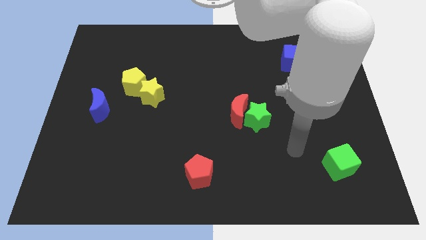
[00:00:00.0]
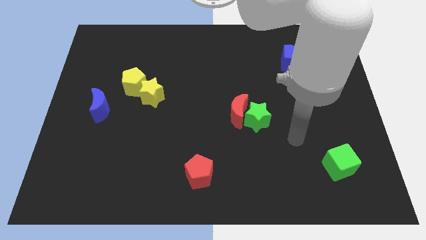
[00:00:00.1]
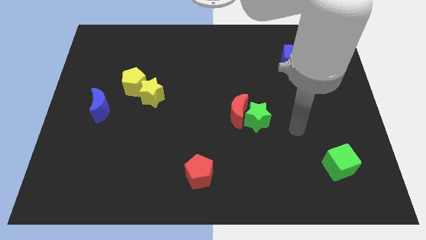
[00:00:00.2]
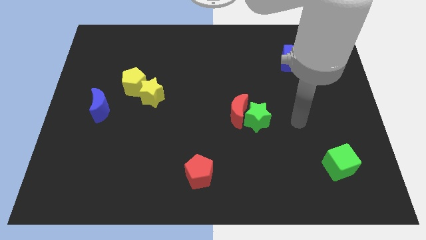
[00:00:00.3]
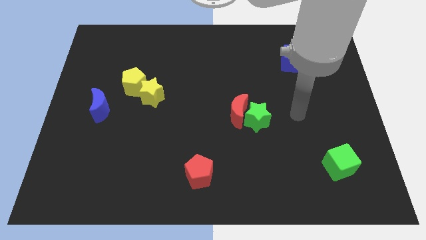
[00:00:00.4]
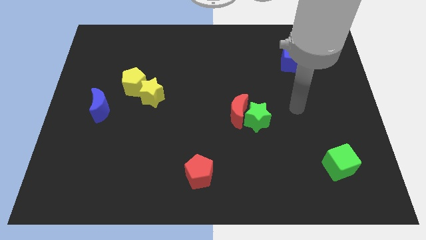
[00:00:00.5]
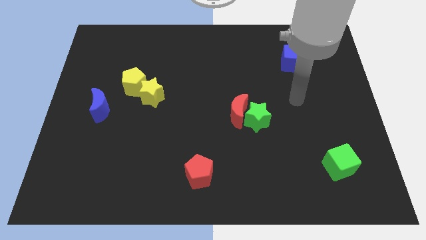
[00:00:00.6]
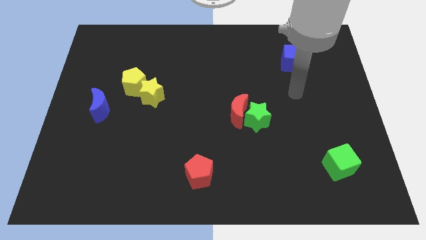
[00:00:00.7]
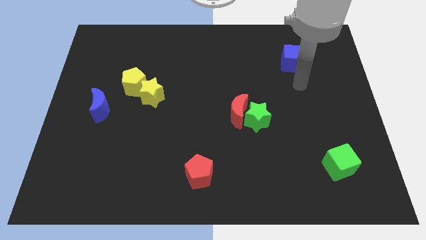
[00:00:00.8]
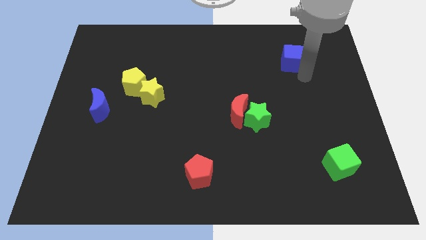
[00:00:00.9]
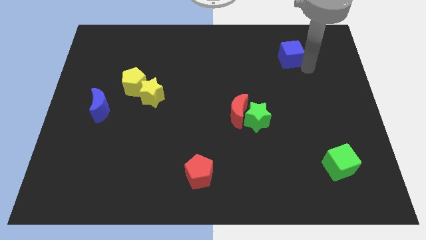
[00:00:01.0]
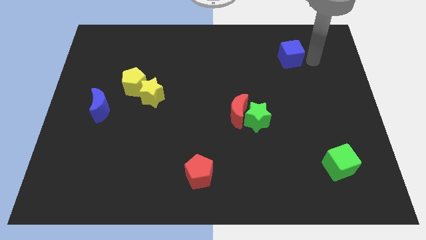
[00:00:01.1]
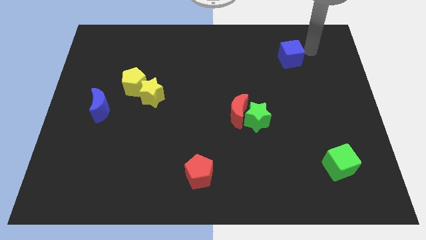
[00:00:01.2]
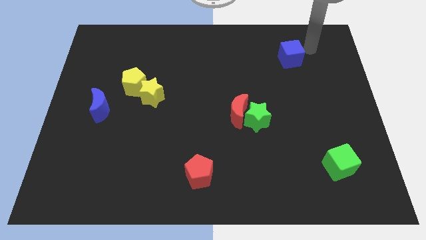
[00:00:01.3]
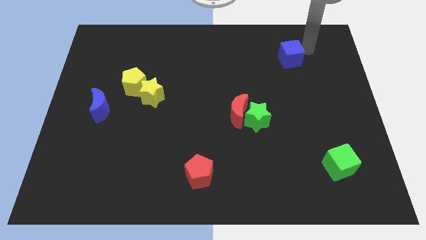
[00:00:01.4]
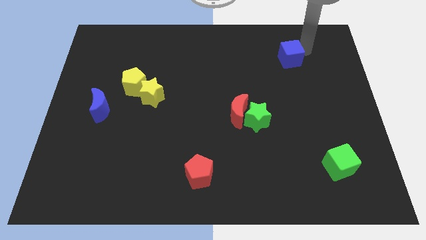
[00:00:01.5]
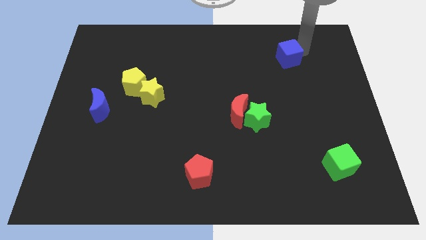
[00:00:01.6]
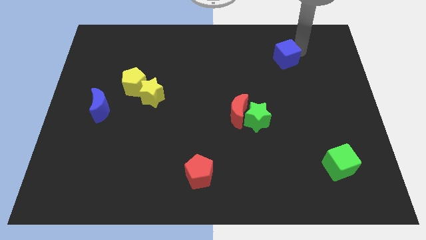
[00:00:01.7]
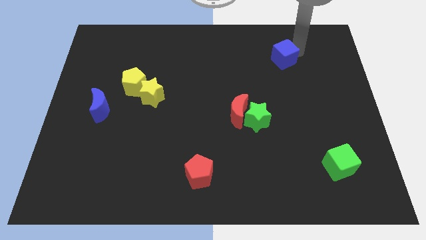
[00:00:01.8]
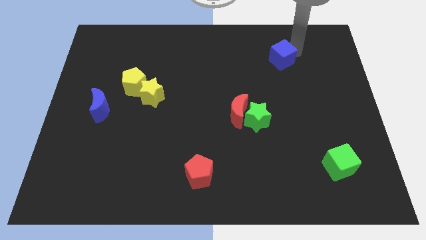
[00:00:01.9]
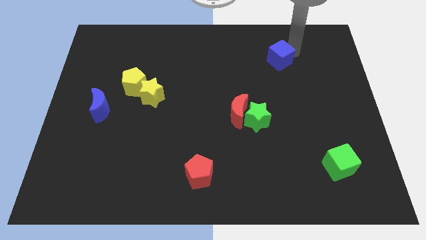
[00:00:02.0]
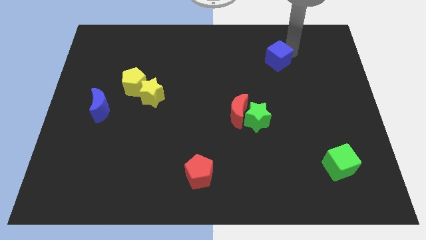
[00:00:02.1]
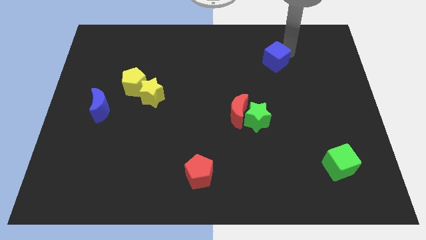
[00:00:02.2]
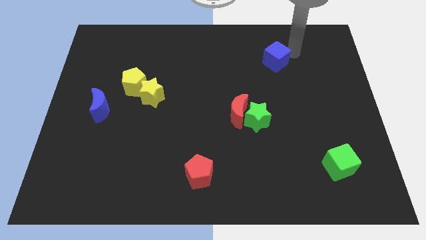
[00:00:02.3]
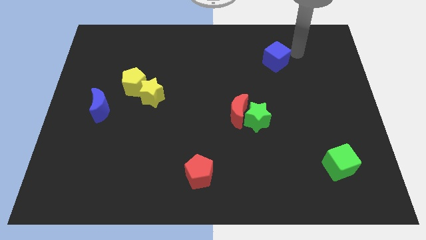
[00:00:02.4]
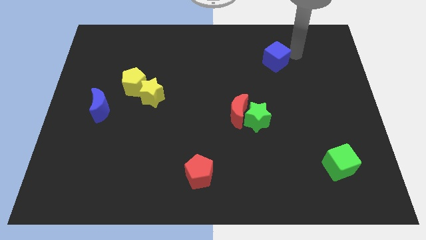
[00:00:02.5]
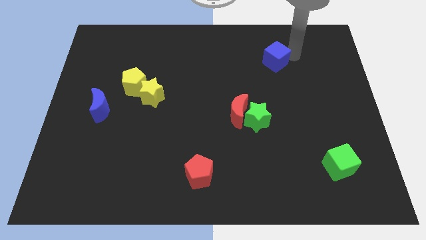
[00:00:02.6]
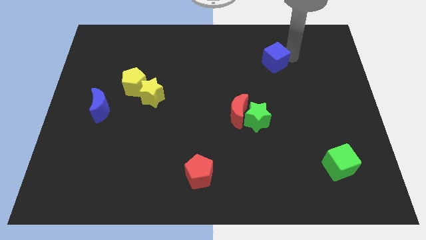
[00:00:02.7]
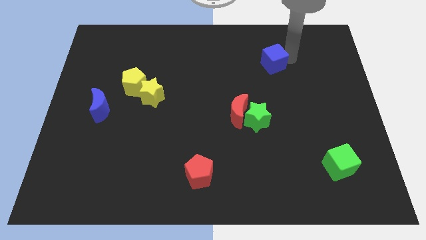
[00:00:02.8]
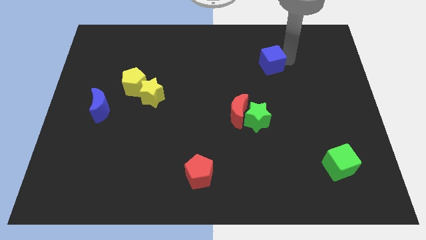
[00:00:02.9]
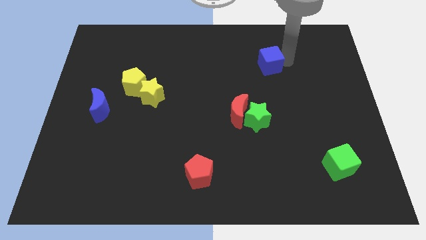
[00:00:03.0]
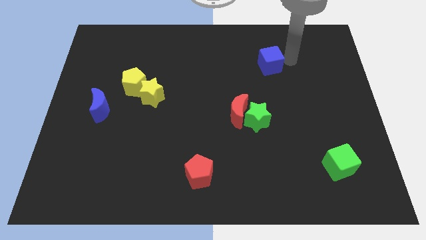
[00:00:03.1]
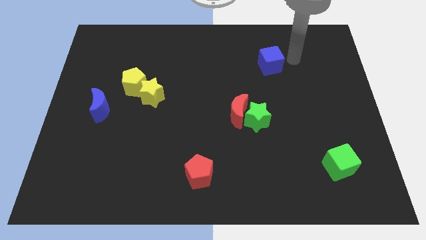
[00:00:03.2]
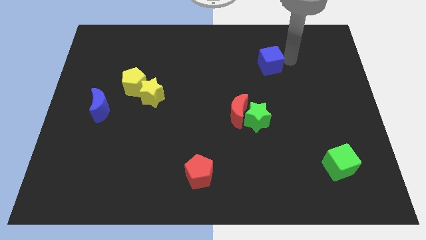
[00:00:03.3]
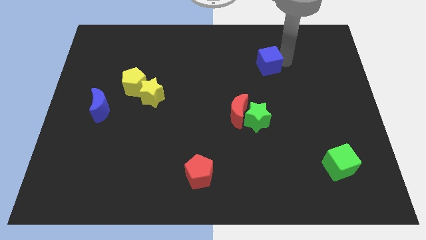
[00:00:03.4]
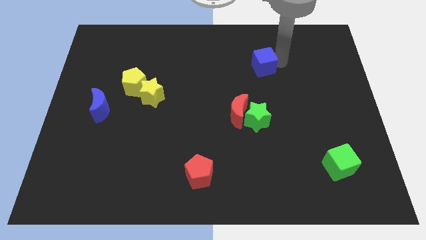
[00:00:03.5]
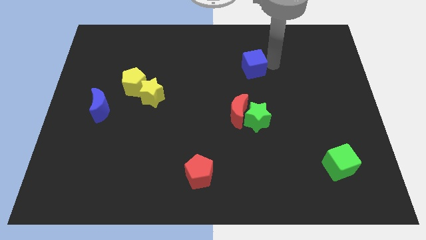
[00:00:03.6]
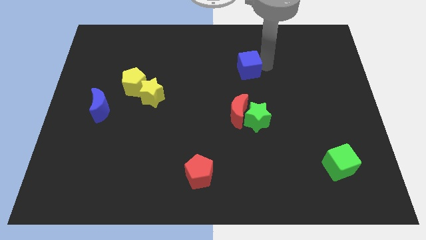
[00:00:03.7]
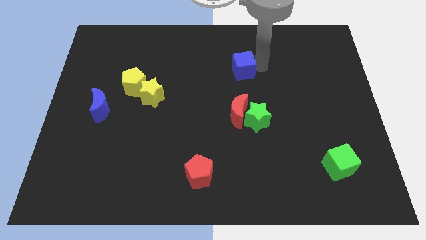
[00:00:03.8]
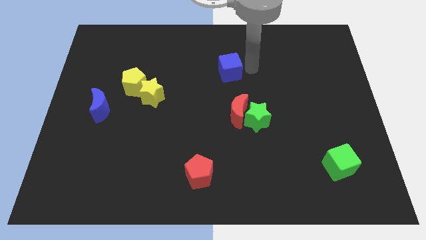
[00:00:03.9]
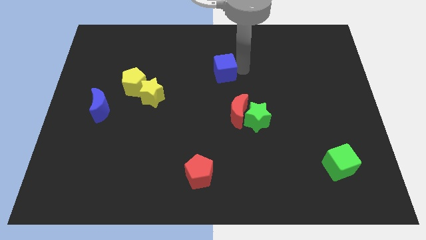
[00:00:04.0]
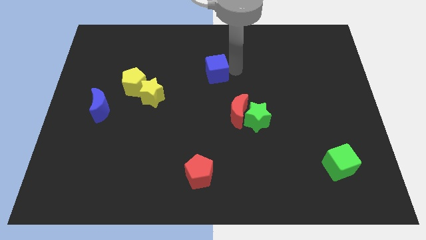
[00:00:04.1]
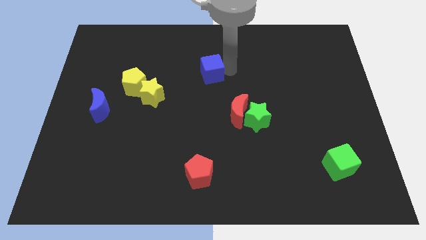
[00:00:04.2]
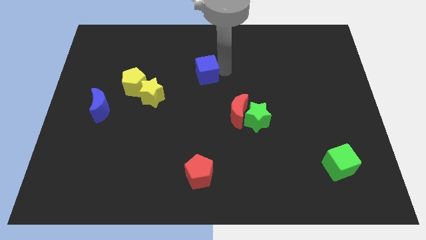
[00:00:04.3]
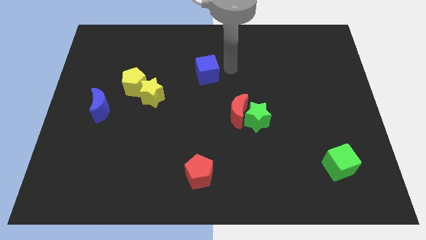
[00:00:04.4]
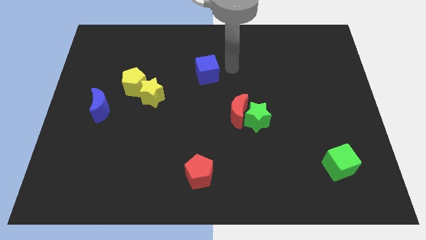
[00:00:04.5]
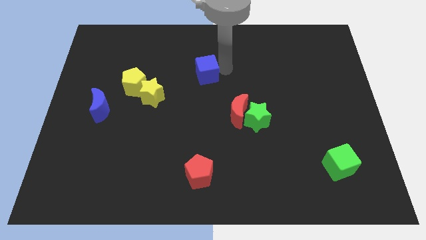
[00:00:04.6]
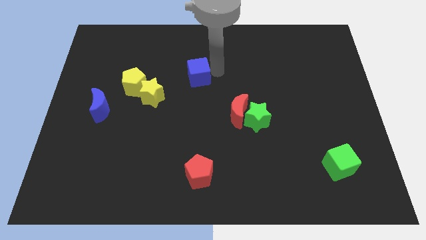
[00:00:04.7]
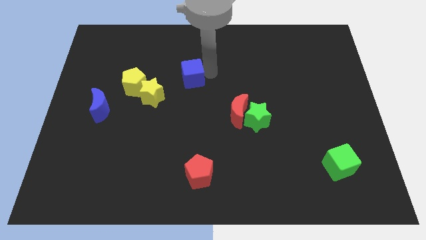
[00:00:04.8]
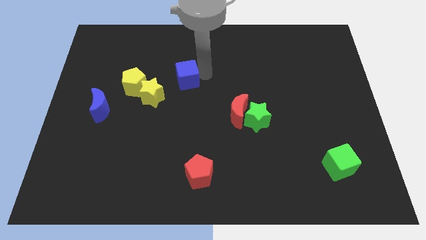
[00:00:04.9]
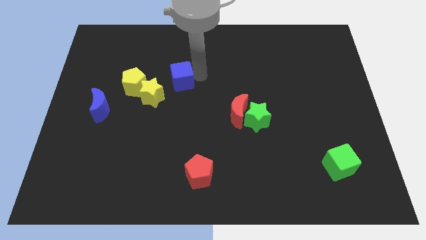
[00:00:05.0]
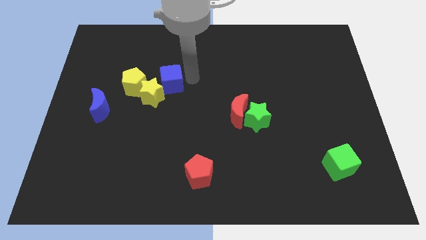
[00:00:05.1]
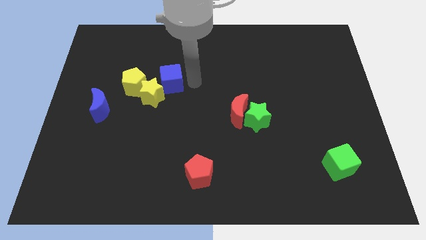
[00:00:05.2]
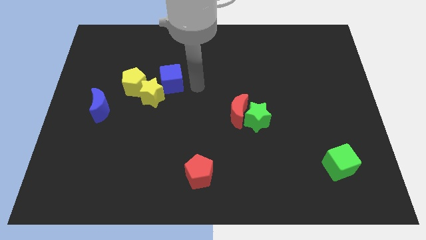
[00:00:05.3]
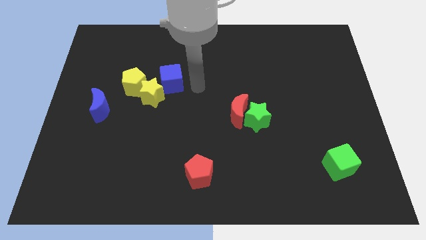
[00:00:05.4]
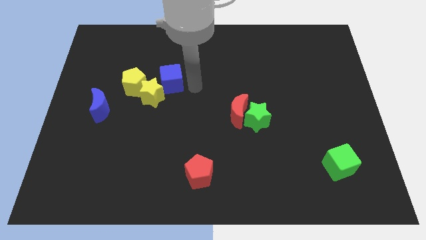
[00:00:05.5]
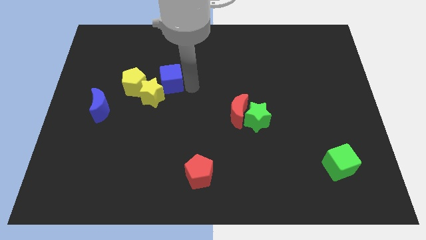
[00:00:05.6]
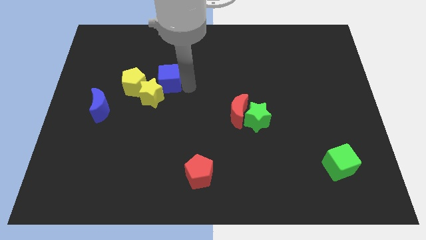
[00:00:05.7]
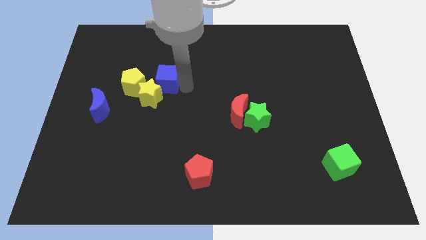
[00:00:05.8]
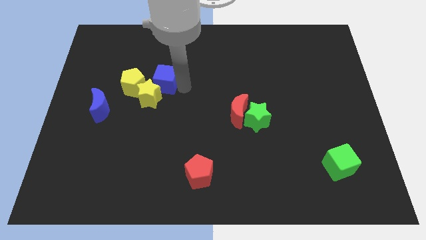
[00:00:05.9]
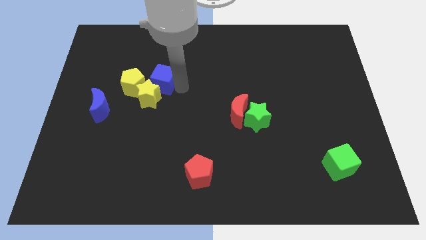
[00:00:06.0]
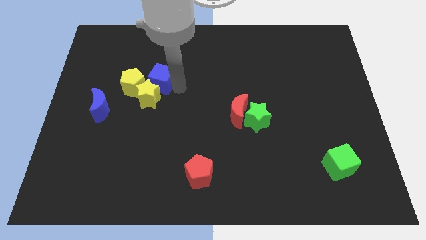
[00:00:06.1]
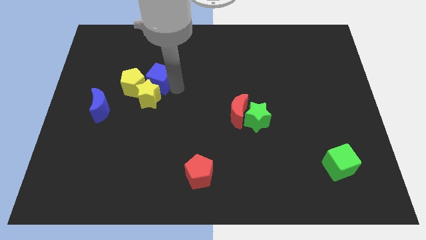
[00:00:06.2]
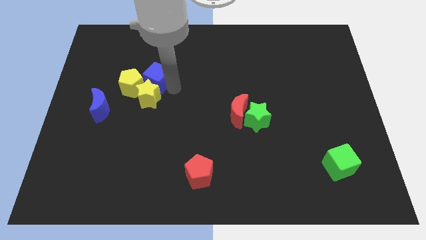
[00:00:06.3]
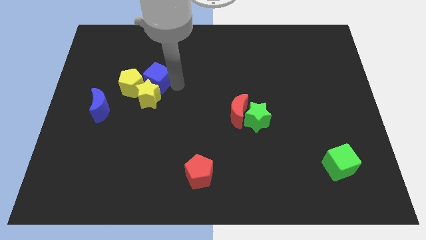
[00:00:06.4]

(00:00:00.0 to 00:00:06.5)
push the blue cube next to the yellow pentagon
